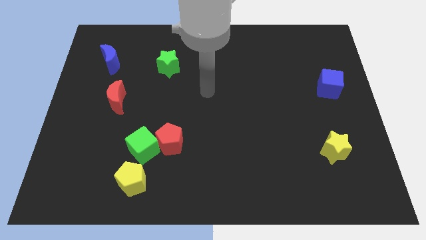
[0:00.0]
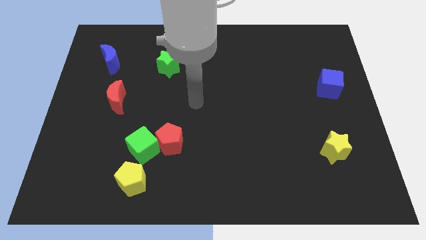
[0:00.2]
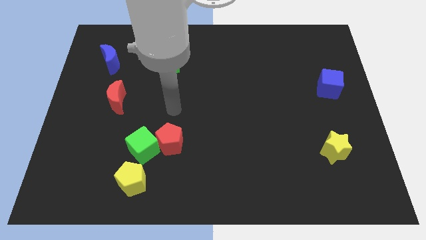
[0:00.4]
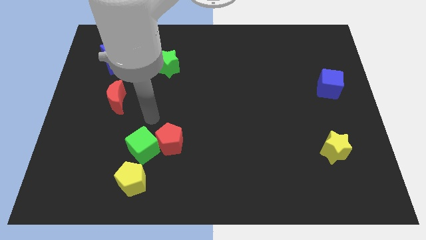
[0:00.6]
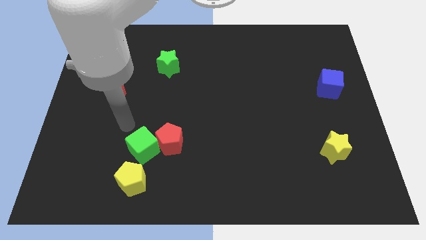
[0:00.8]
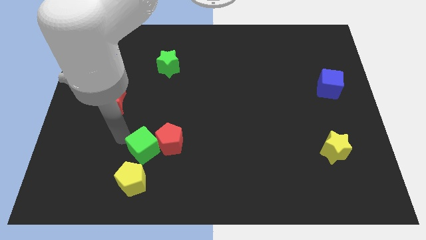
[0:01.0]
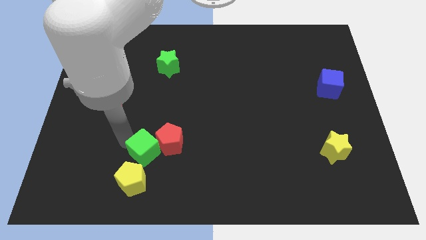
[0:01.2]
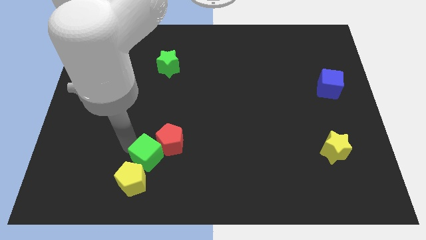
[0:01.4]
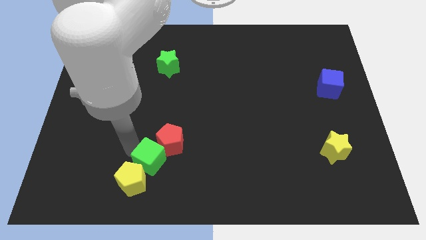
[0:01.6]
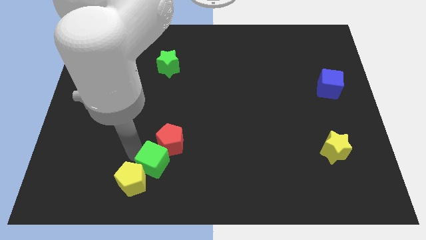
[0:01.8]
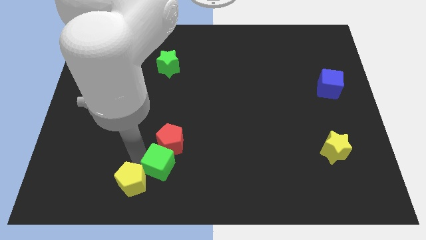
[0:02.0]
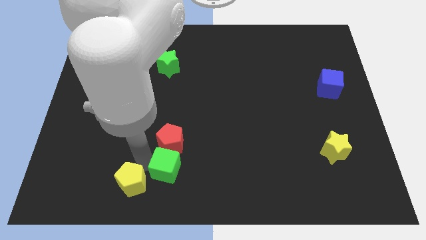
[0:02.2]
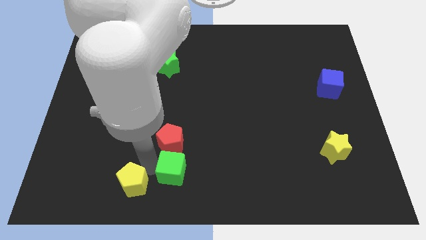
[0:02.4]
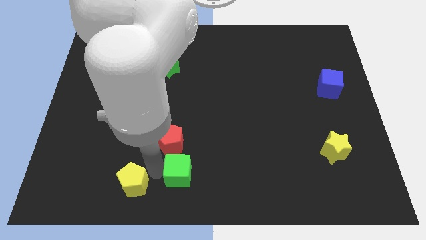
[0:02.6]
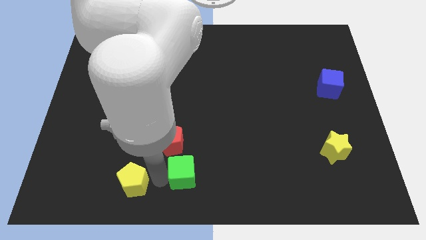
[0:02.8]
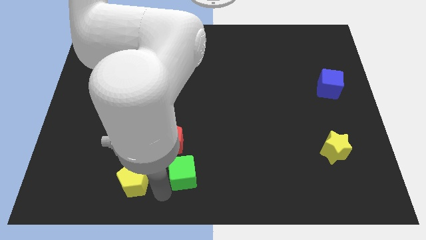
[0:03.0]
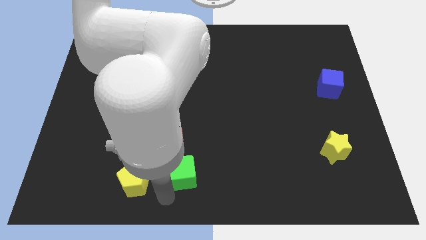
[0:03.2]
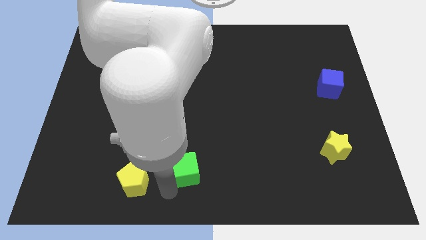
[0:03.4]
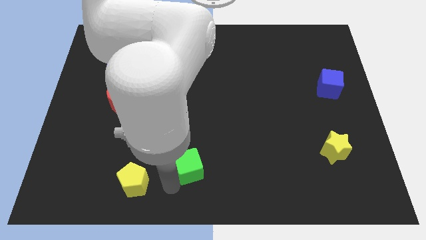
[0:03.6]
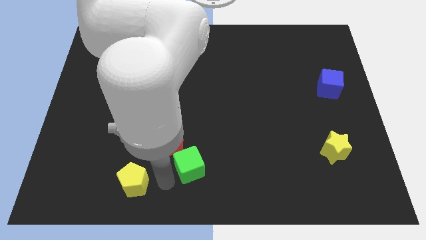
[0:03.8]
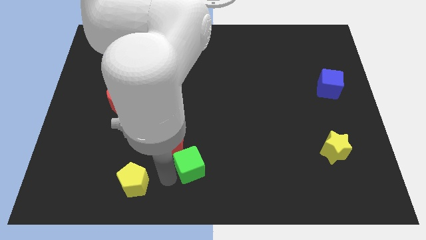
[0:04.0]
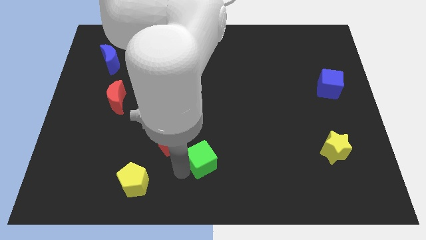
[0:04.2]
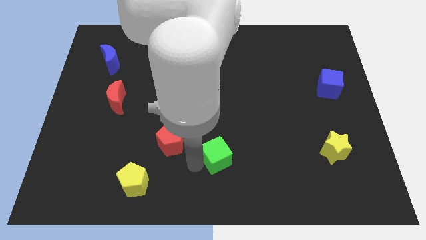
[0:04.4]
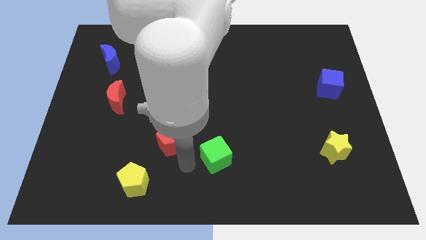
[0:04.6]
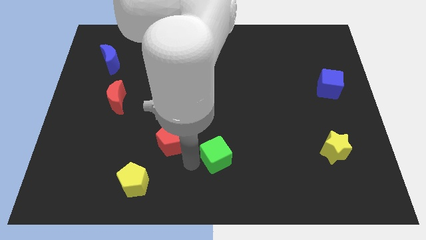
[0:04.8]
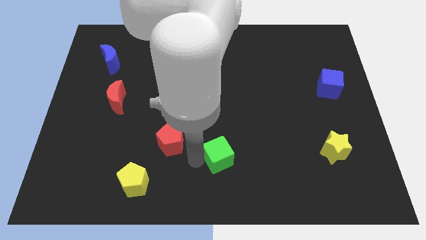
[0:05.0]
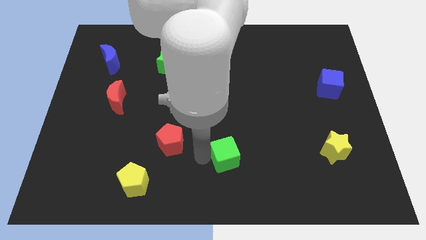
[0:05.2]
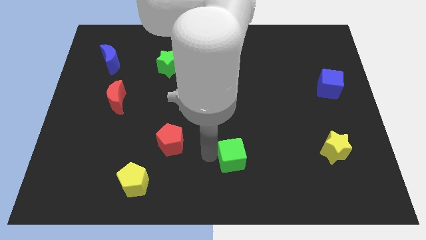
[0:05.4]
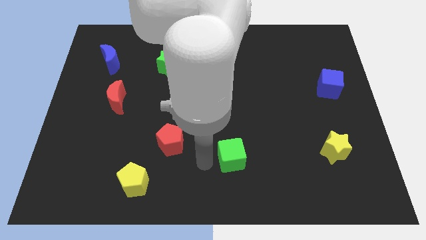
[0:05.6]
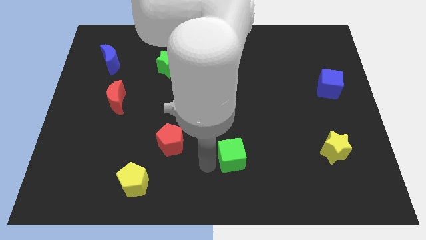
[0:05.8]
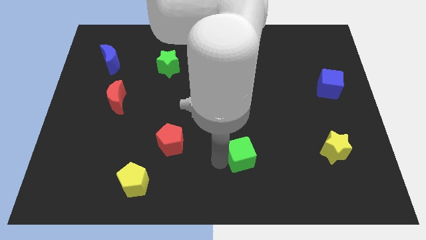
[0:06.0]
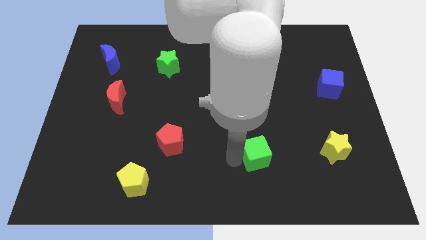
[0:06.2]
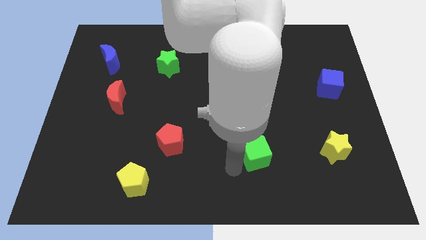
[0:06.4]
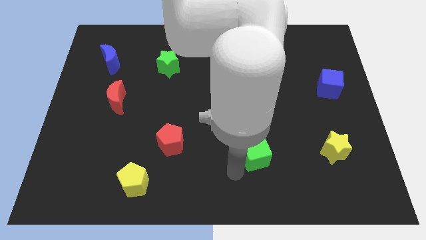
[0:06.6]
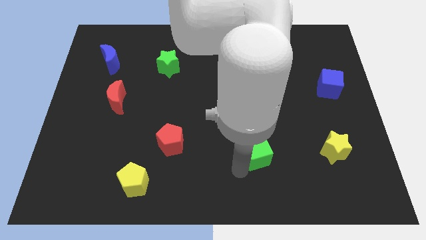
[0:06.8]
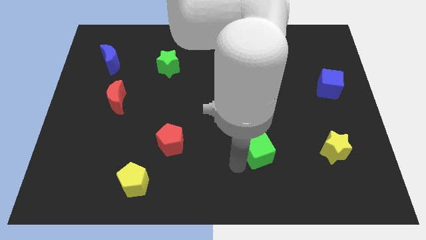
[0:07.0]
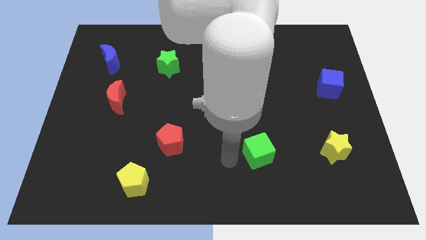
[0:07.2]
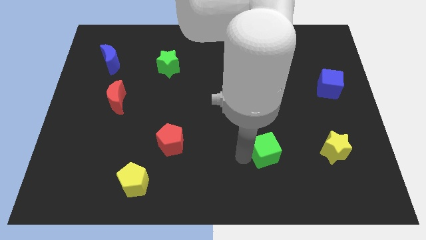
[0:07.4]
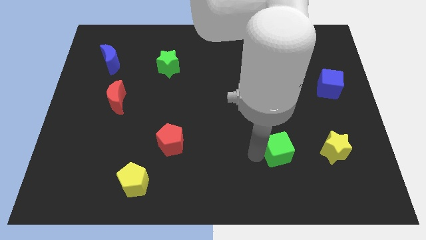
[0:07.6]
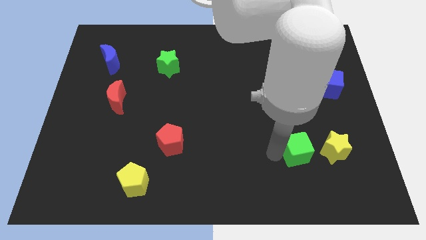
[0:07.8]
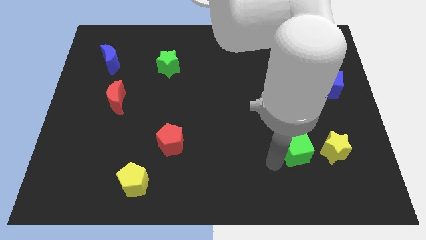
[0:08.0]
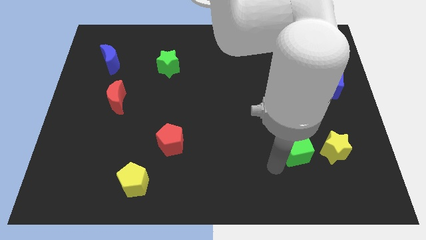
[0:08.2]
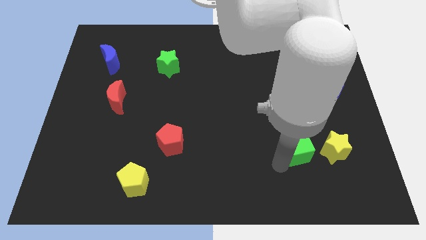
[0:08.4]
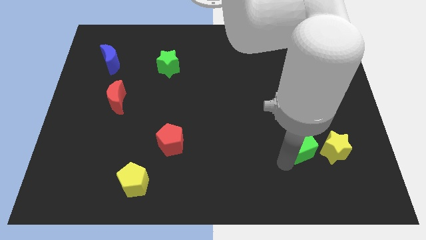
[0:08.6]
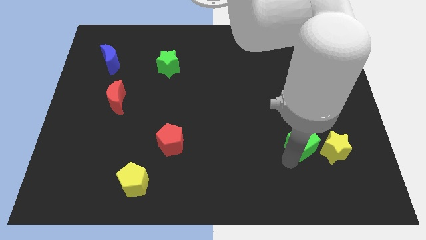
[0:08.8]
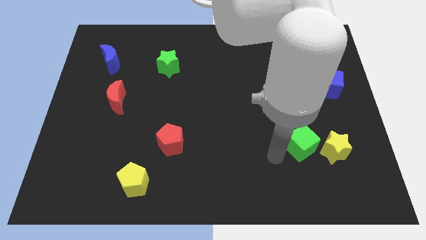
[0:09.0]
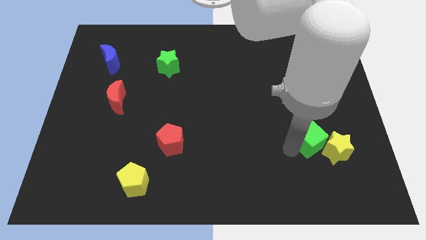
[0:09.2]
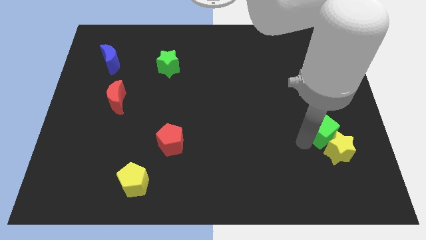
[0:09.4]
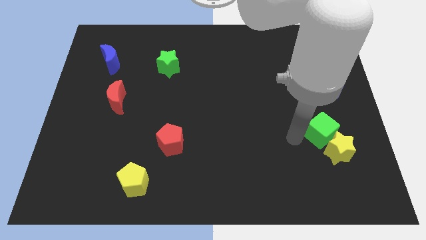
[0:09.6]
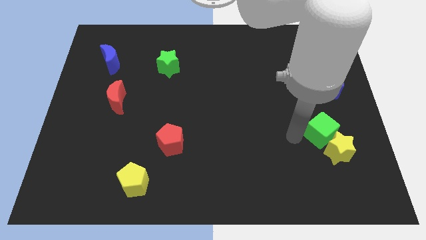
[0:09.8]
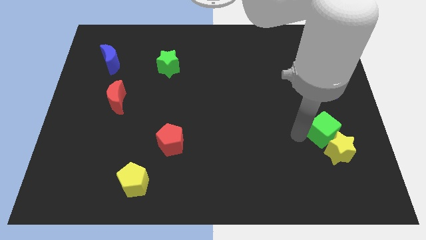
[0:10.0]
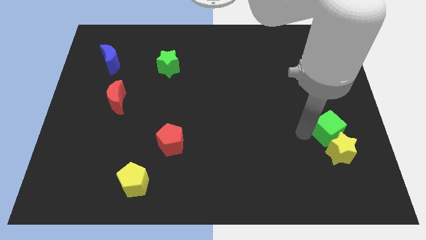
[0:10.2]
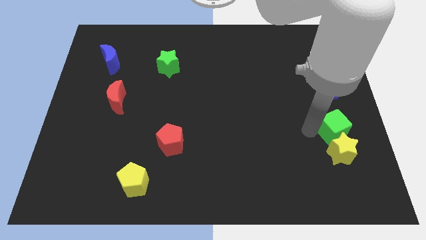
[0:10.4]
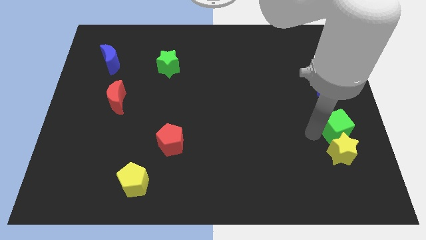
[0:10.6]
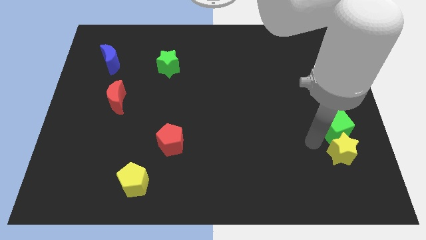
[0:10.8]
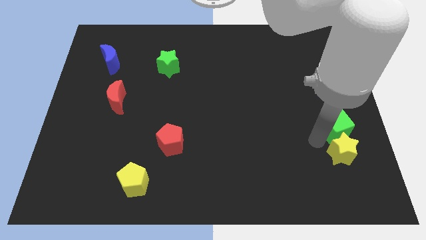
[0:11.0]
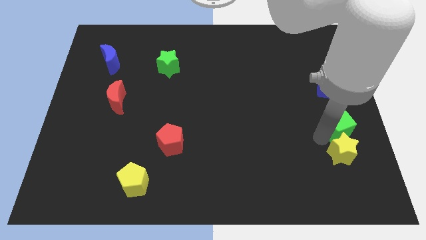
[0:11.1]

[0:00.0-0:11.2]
push the green cube to the right side

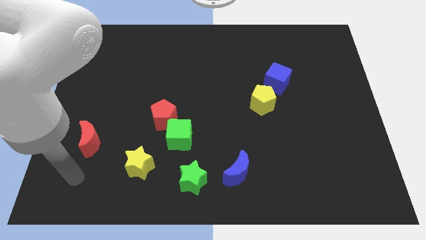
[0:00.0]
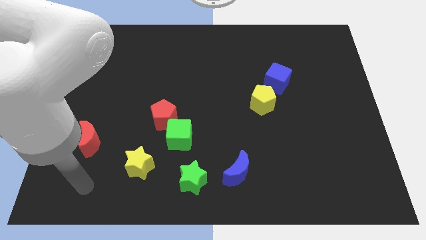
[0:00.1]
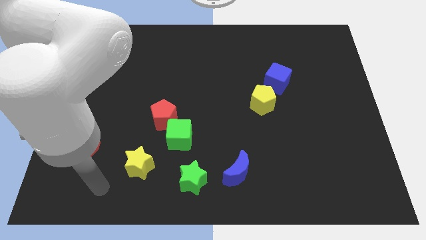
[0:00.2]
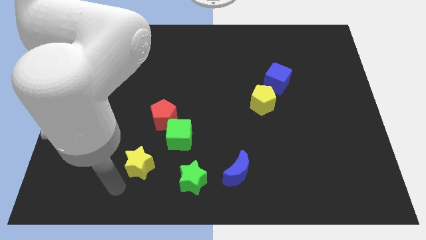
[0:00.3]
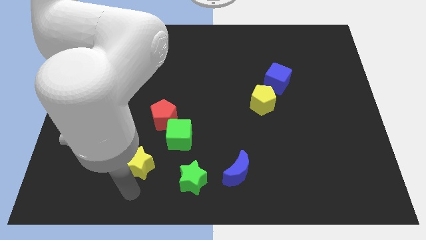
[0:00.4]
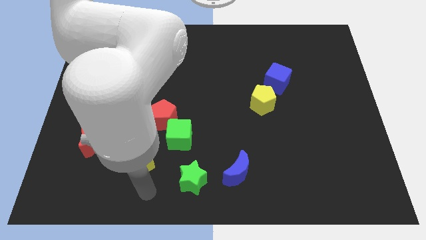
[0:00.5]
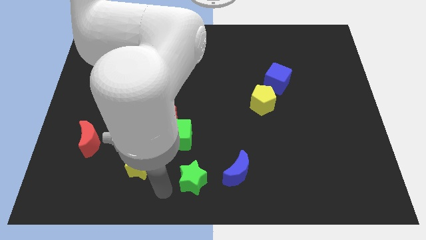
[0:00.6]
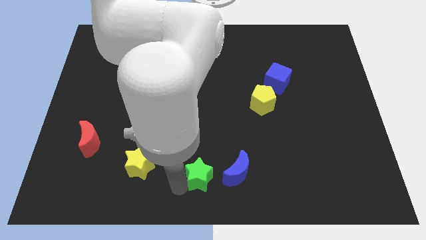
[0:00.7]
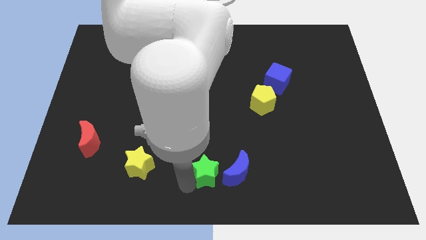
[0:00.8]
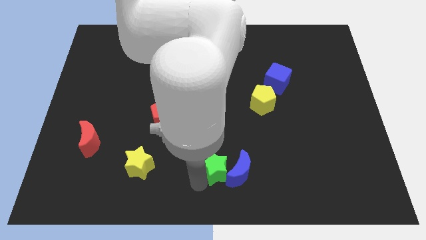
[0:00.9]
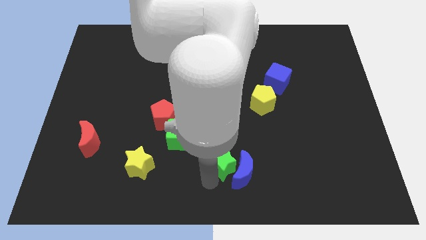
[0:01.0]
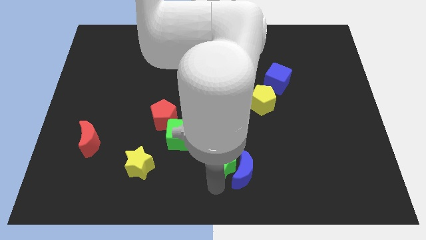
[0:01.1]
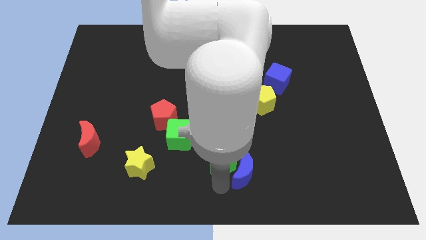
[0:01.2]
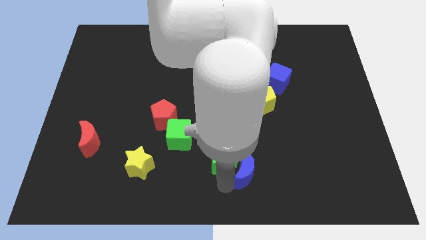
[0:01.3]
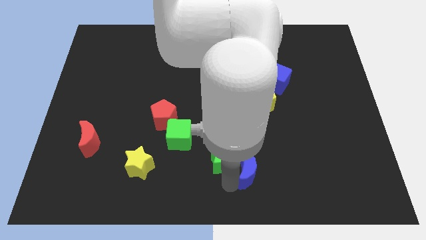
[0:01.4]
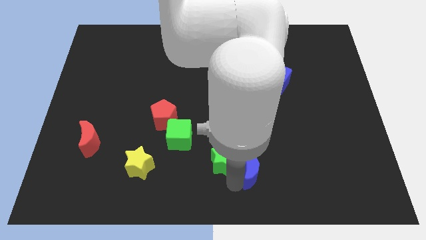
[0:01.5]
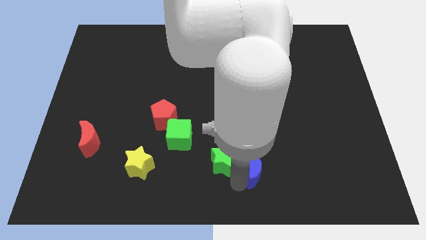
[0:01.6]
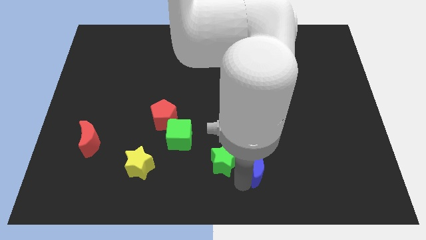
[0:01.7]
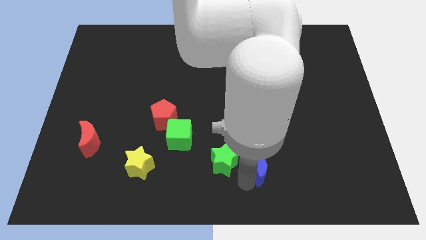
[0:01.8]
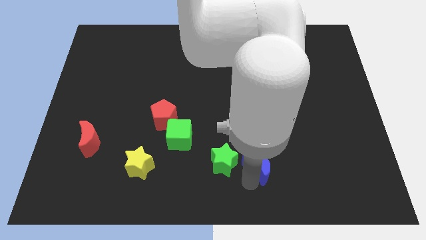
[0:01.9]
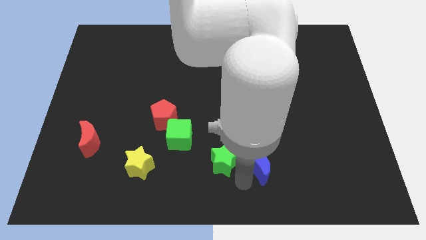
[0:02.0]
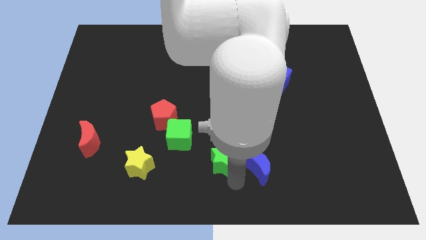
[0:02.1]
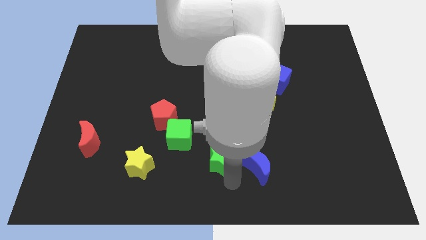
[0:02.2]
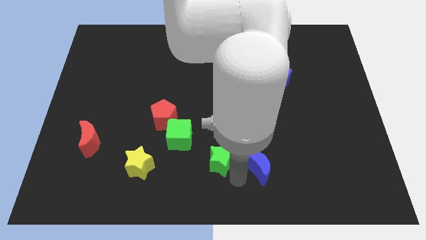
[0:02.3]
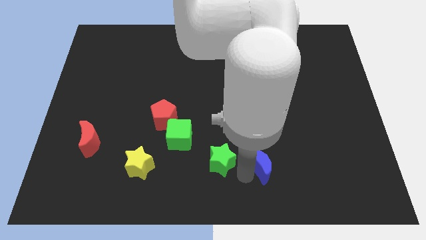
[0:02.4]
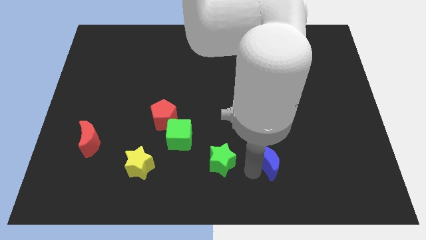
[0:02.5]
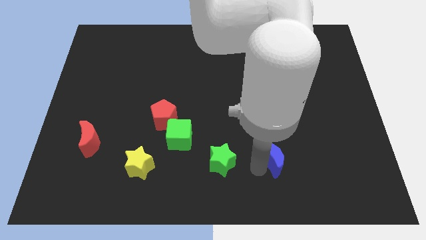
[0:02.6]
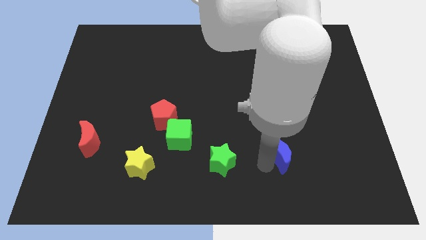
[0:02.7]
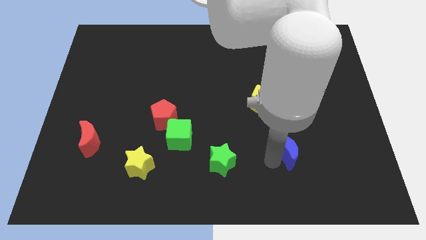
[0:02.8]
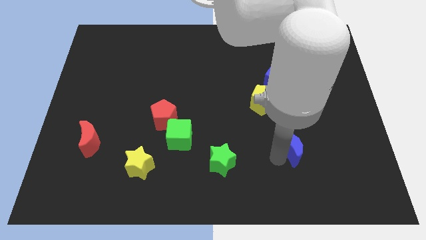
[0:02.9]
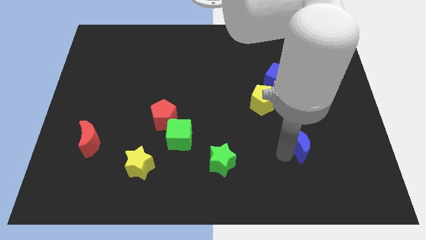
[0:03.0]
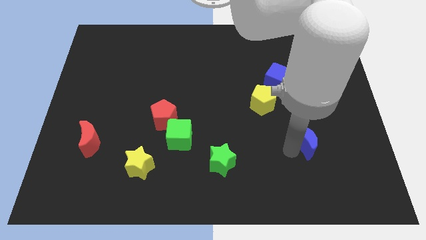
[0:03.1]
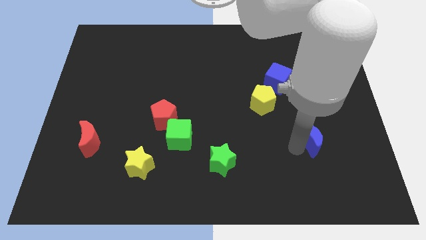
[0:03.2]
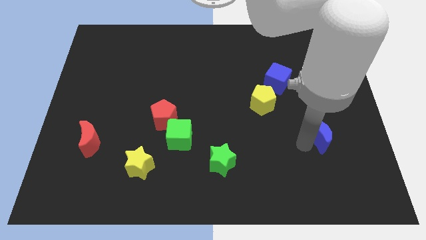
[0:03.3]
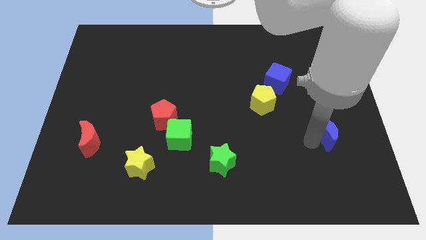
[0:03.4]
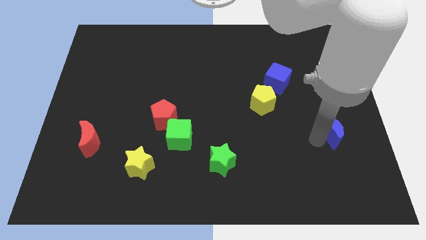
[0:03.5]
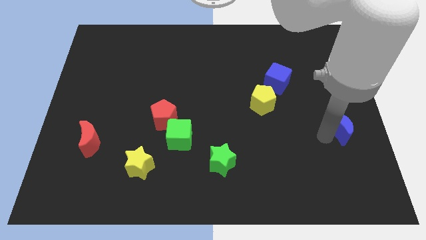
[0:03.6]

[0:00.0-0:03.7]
slide the blue moon to the right side of the board
